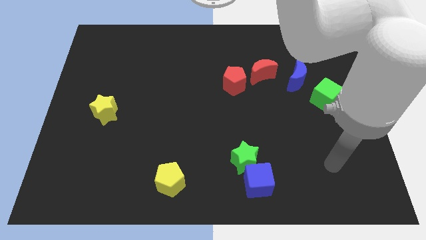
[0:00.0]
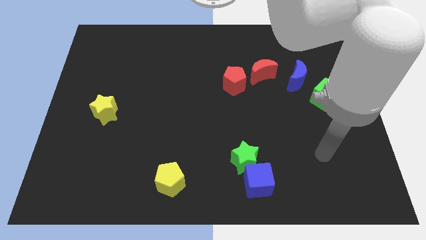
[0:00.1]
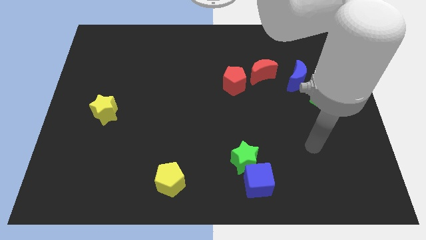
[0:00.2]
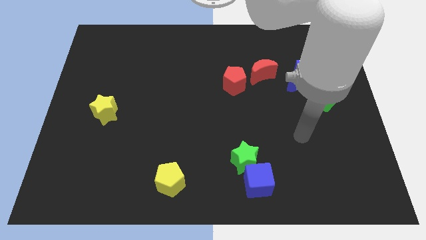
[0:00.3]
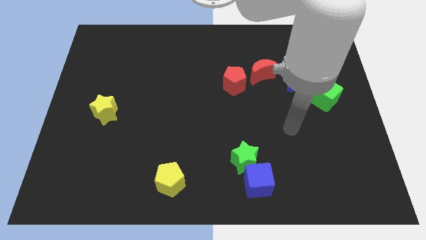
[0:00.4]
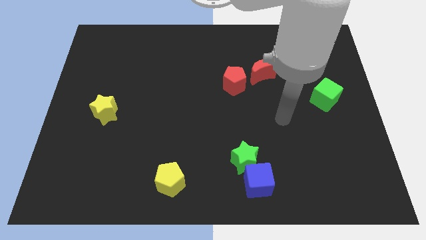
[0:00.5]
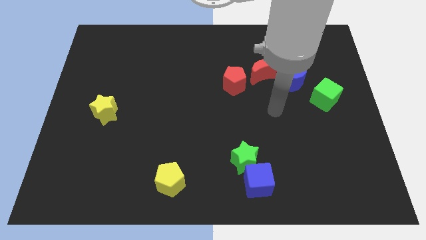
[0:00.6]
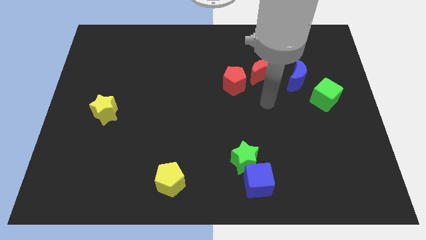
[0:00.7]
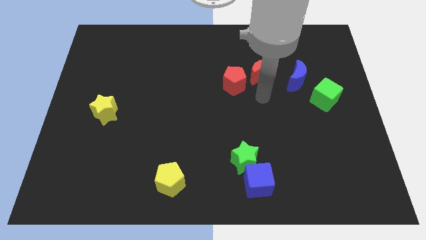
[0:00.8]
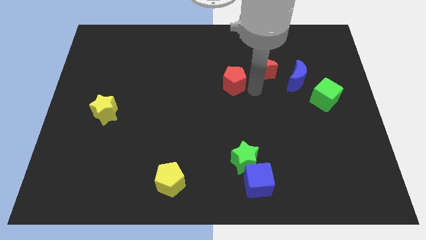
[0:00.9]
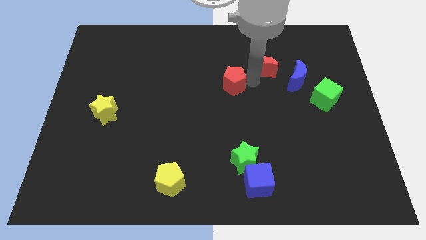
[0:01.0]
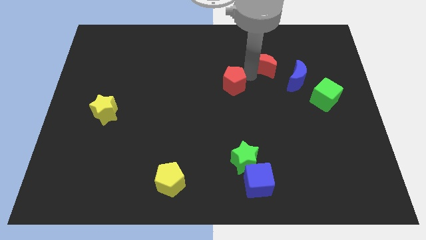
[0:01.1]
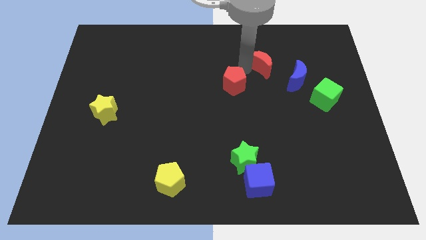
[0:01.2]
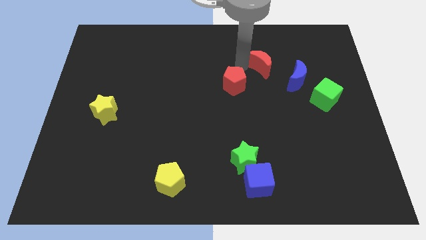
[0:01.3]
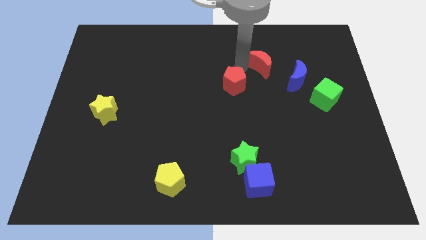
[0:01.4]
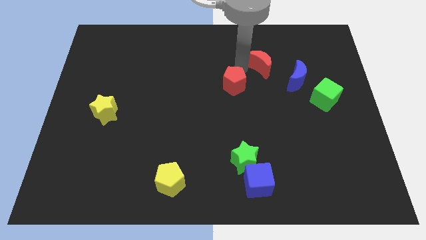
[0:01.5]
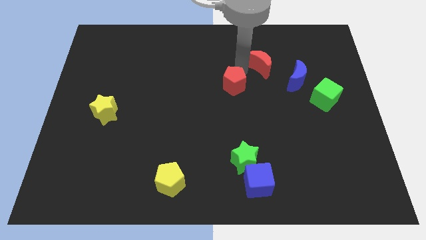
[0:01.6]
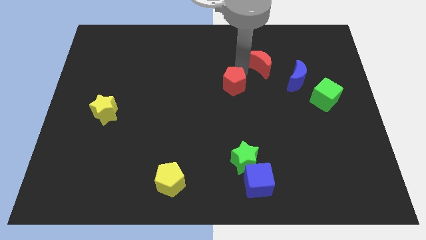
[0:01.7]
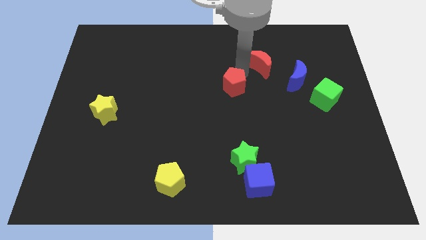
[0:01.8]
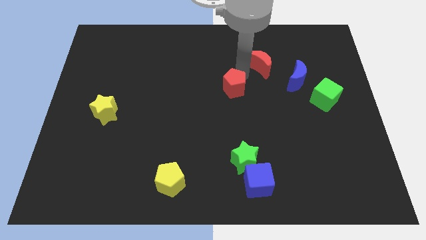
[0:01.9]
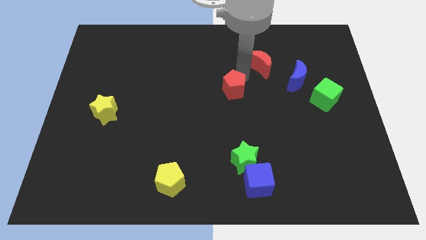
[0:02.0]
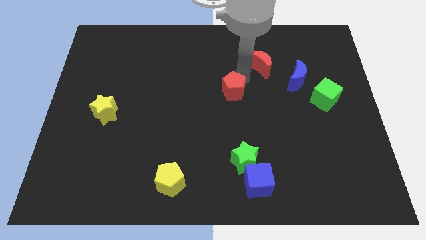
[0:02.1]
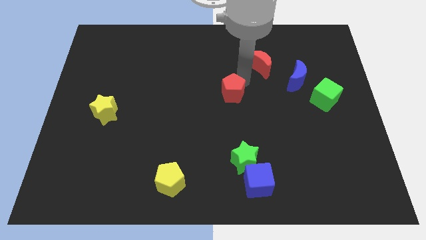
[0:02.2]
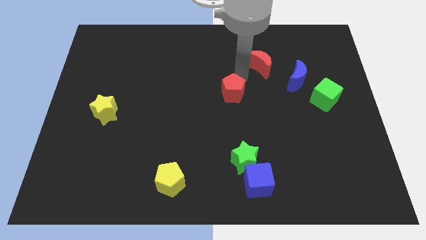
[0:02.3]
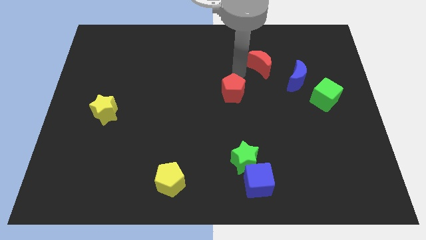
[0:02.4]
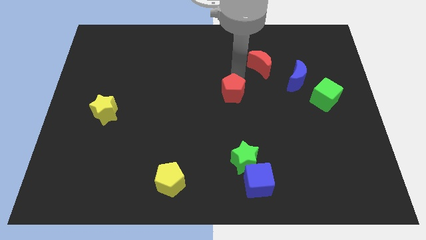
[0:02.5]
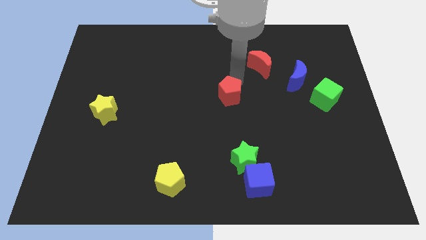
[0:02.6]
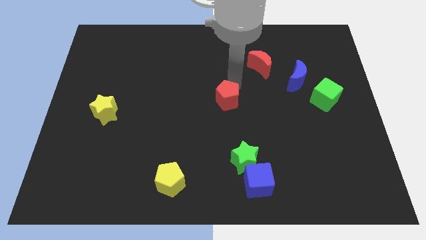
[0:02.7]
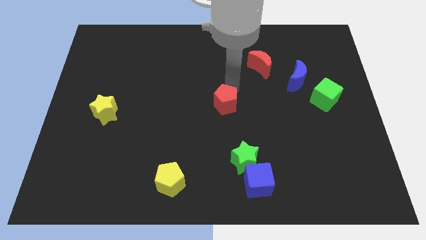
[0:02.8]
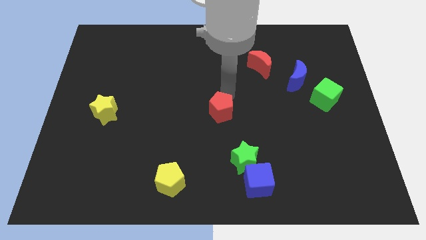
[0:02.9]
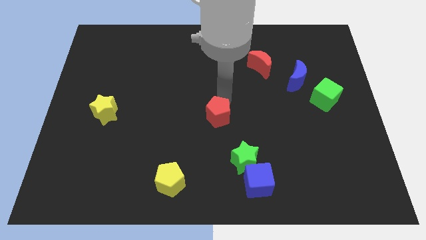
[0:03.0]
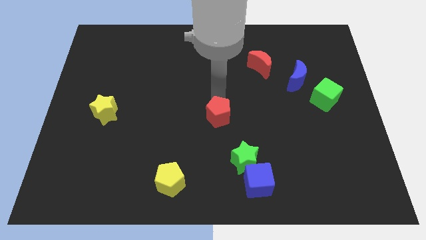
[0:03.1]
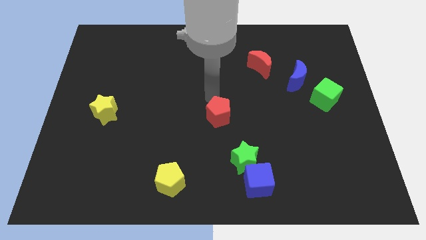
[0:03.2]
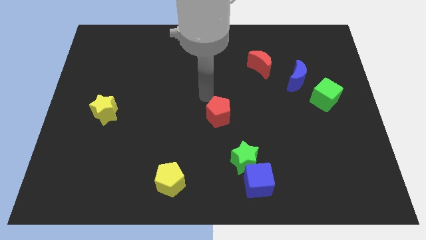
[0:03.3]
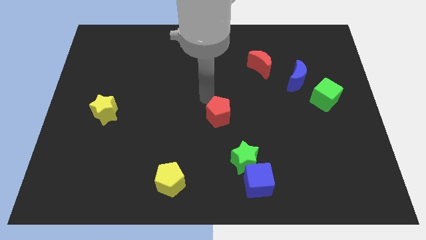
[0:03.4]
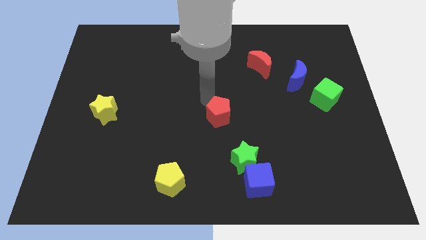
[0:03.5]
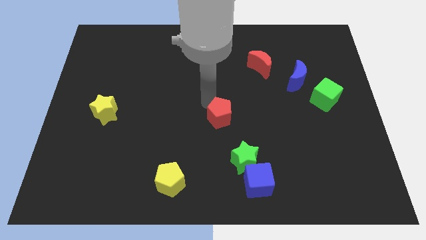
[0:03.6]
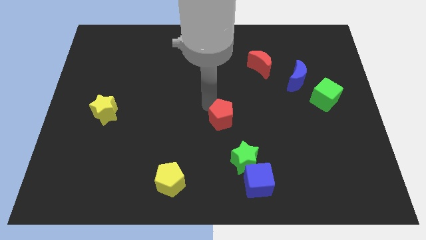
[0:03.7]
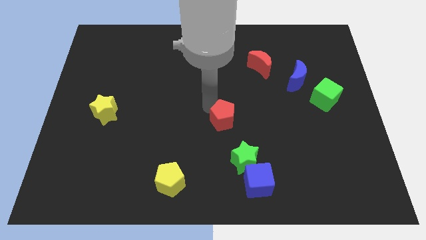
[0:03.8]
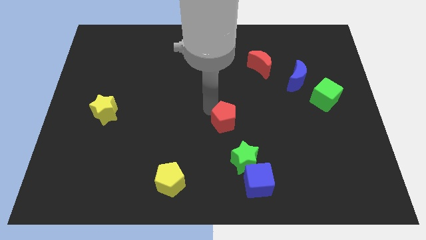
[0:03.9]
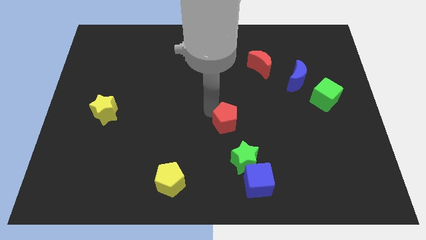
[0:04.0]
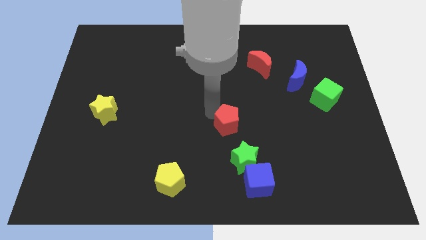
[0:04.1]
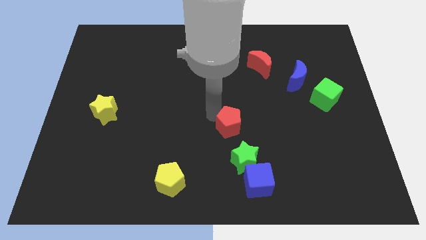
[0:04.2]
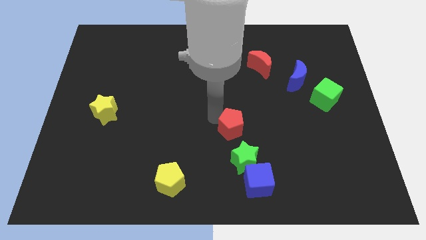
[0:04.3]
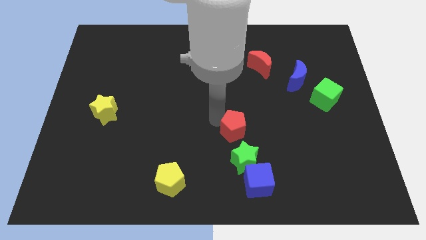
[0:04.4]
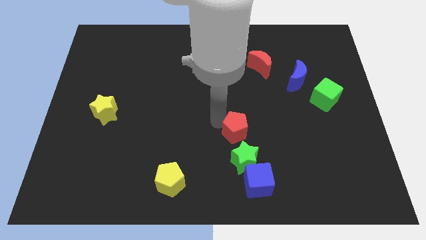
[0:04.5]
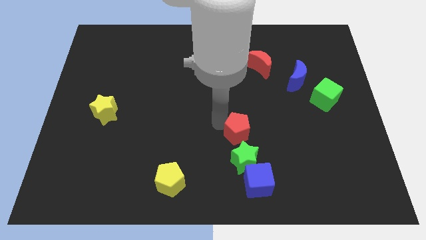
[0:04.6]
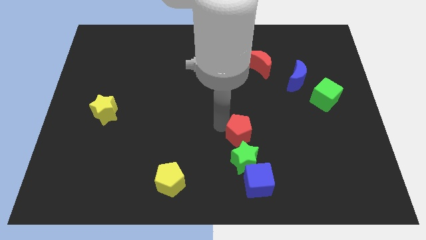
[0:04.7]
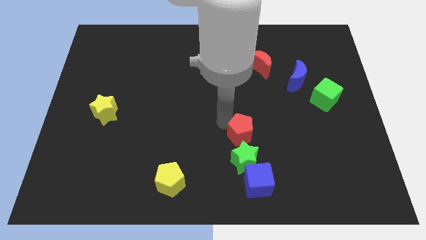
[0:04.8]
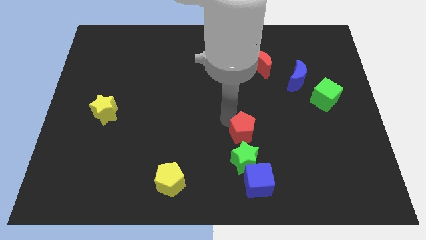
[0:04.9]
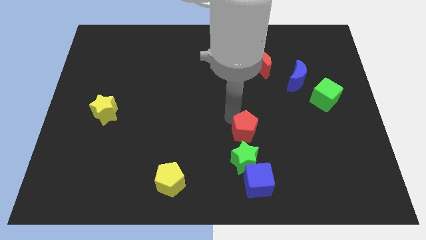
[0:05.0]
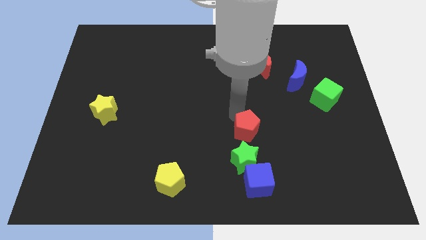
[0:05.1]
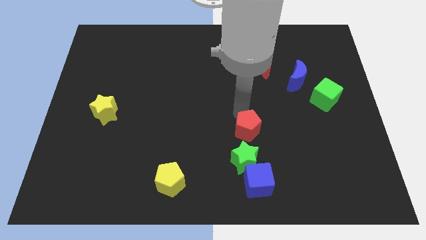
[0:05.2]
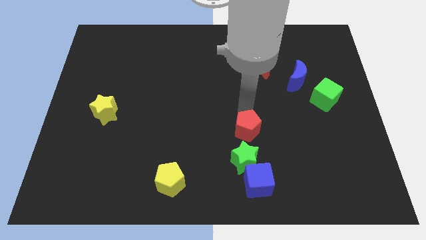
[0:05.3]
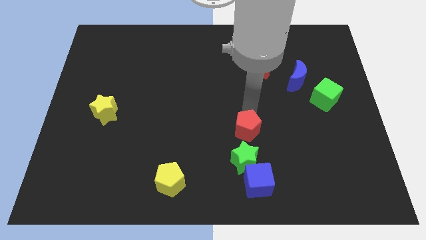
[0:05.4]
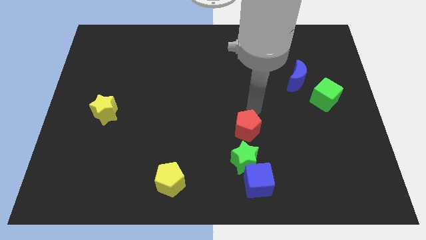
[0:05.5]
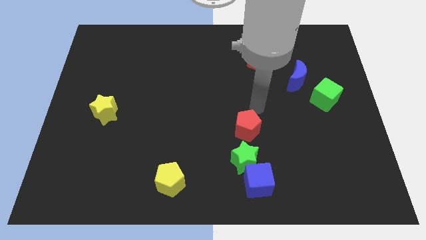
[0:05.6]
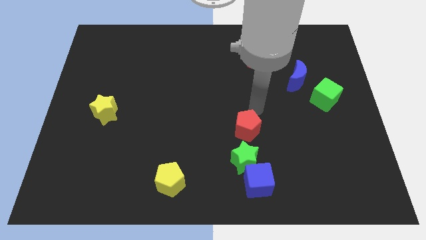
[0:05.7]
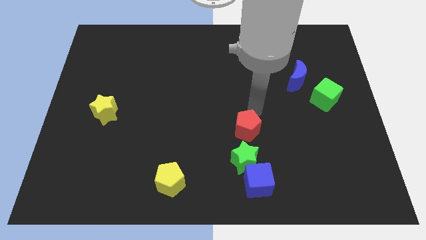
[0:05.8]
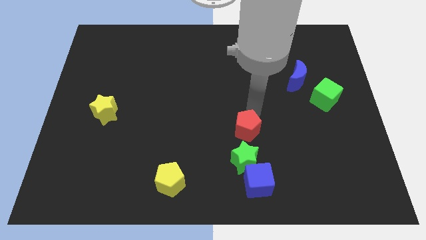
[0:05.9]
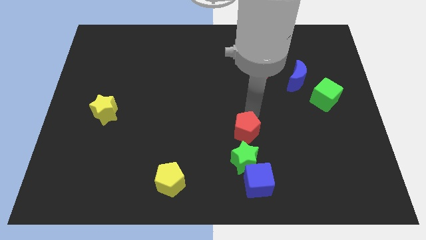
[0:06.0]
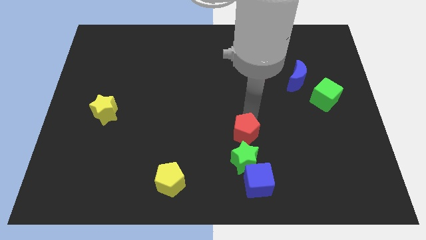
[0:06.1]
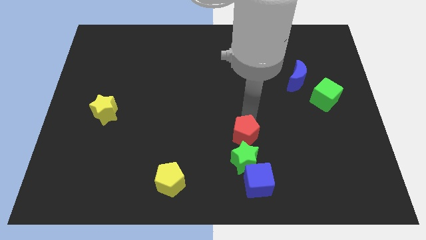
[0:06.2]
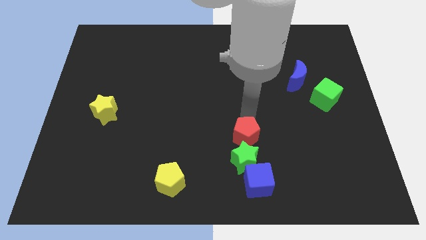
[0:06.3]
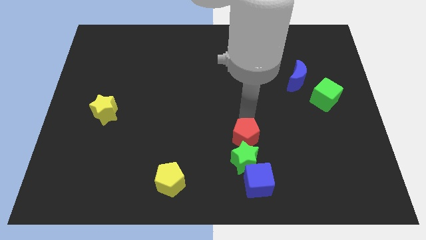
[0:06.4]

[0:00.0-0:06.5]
move the red pentagon next to the green star

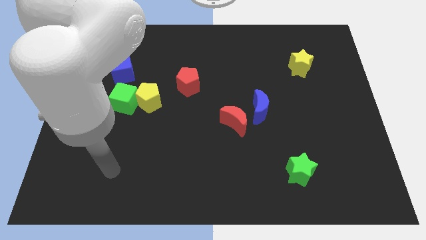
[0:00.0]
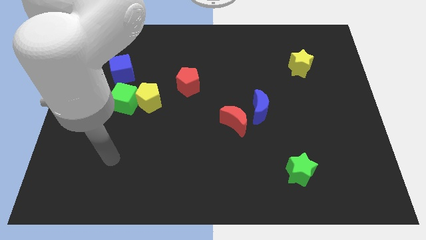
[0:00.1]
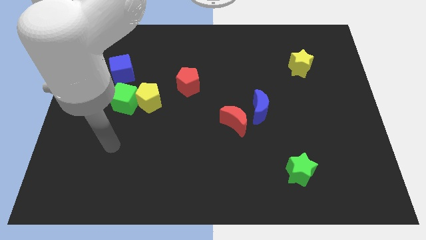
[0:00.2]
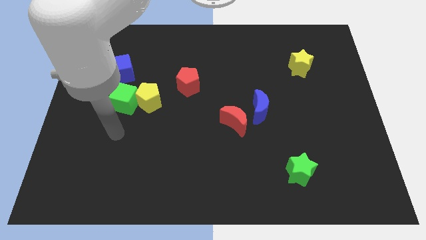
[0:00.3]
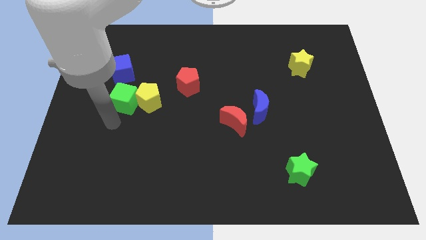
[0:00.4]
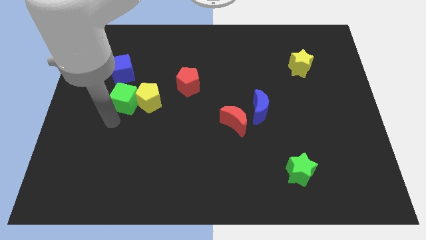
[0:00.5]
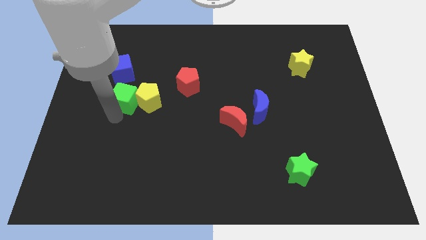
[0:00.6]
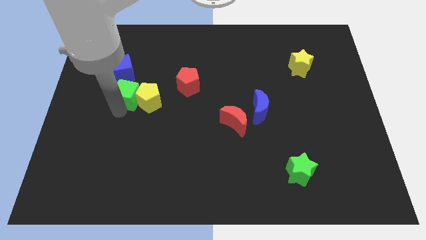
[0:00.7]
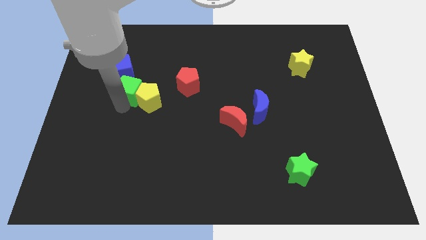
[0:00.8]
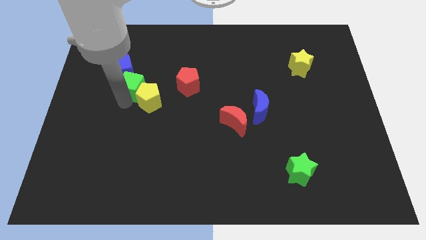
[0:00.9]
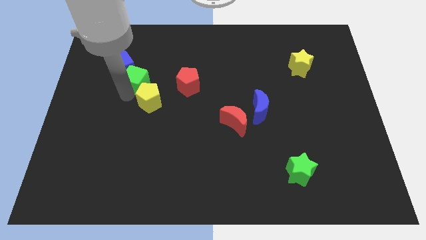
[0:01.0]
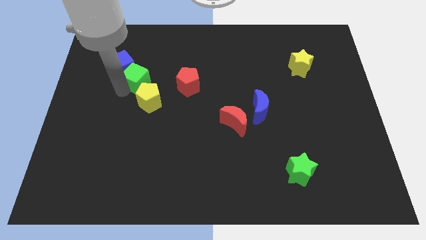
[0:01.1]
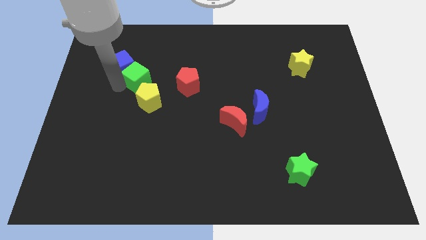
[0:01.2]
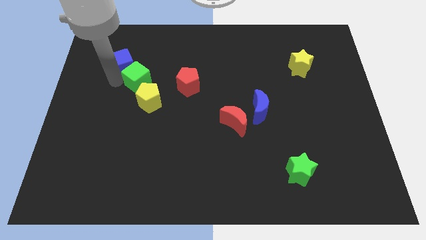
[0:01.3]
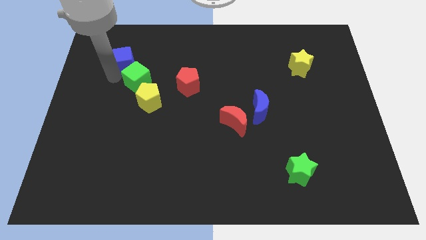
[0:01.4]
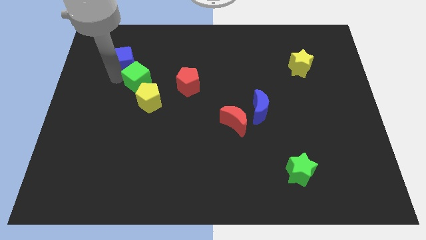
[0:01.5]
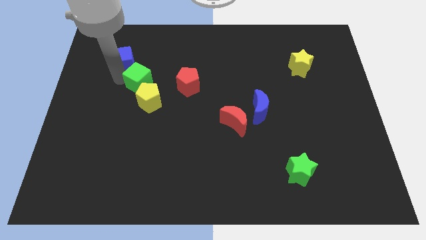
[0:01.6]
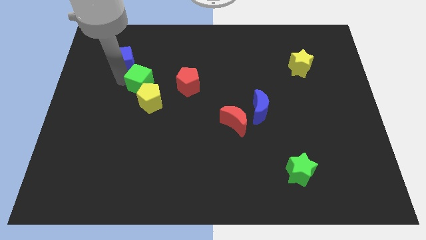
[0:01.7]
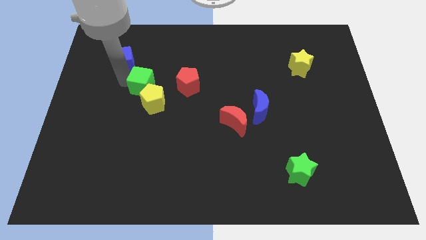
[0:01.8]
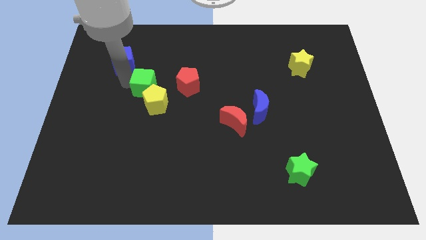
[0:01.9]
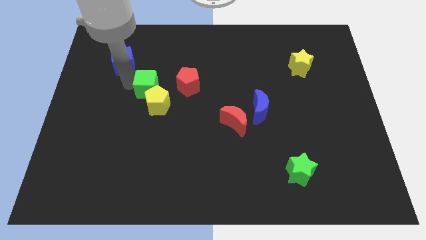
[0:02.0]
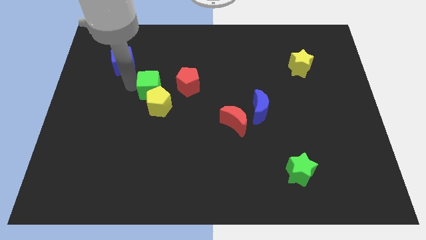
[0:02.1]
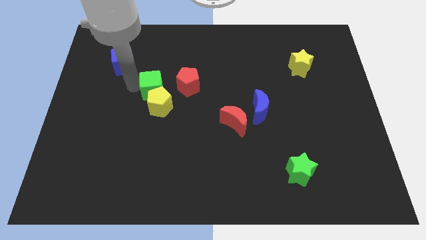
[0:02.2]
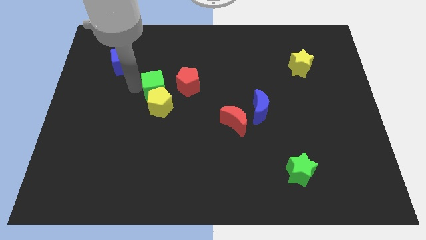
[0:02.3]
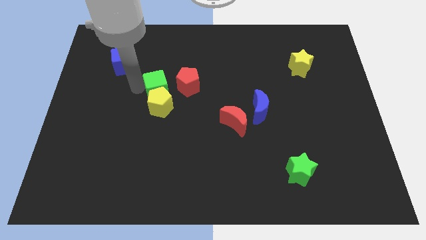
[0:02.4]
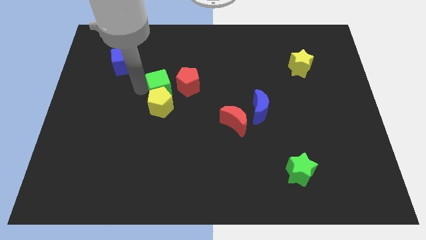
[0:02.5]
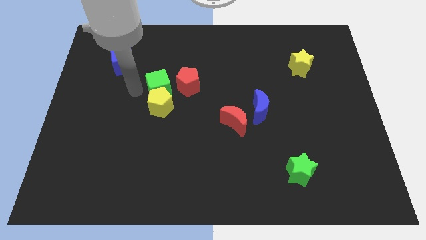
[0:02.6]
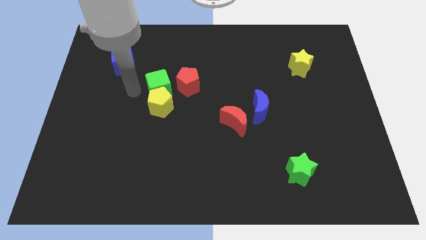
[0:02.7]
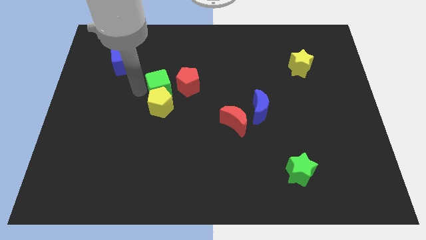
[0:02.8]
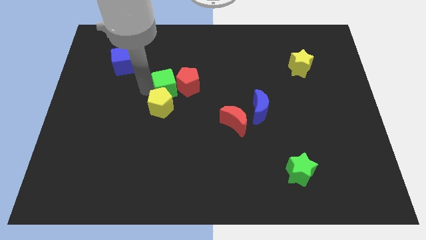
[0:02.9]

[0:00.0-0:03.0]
push the green cube close to the red pentagon
